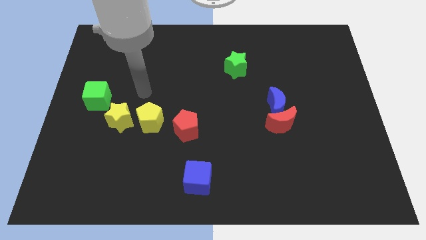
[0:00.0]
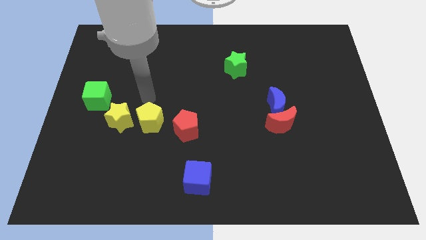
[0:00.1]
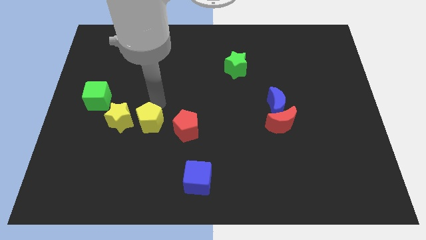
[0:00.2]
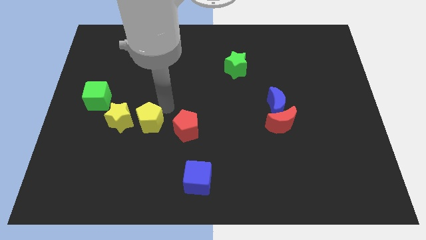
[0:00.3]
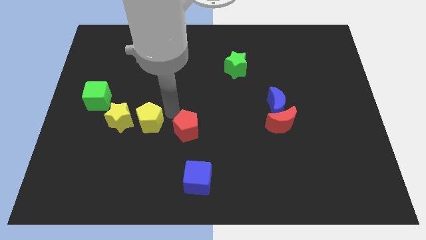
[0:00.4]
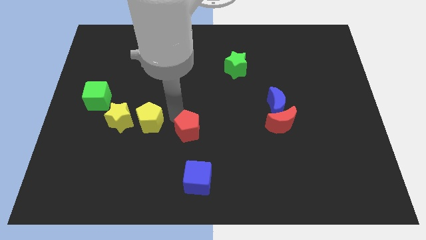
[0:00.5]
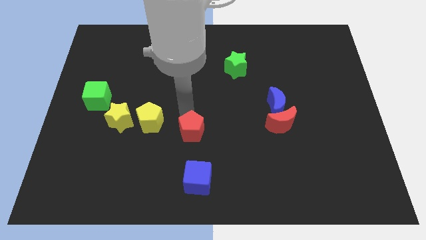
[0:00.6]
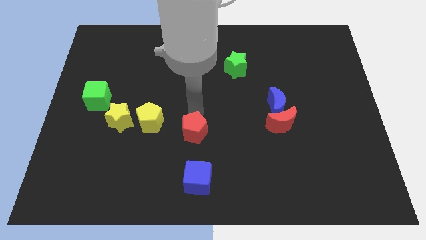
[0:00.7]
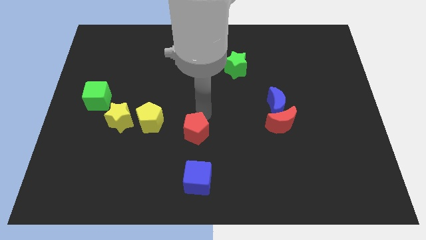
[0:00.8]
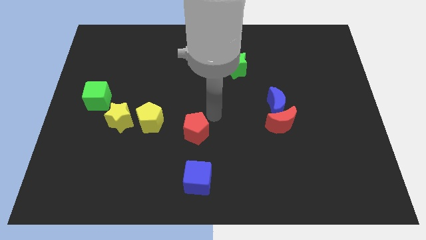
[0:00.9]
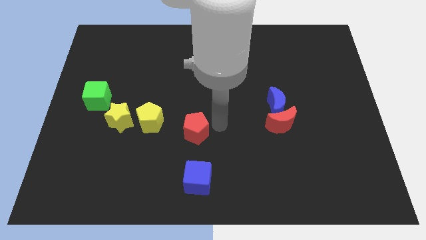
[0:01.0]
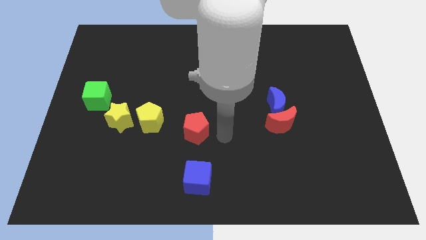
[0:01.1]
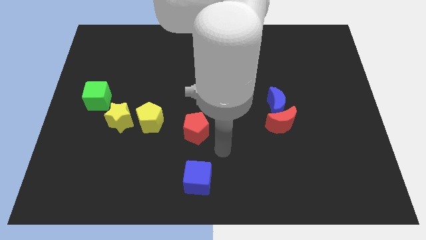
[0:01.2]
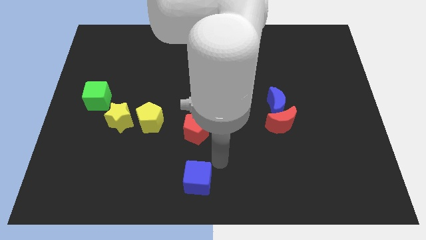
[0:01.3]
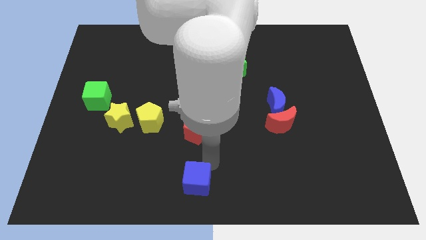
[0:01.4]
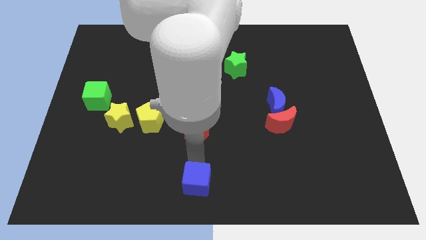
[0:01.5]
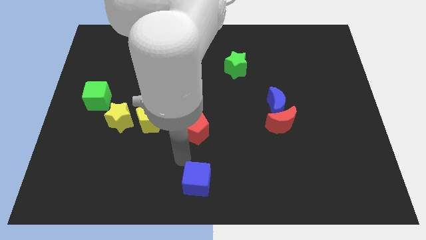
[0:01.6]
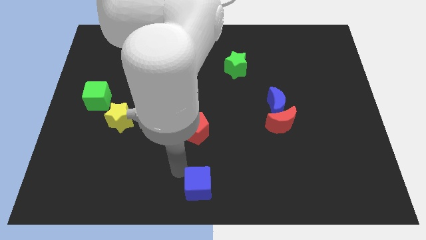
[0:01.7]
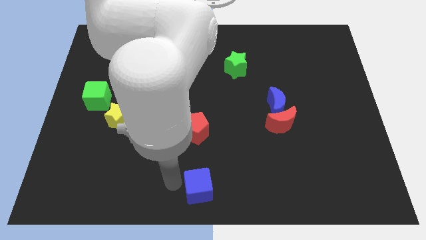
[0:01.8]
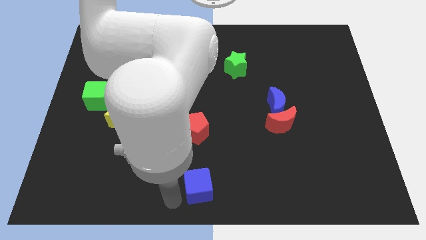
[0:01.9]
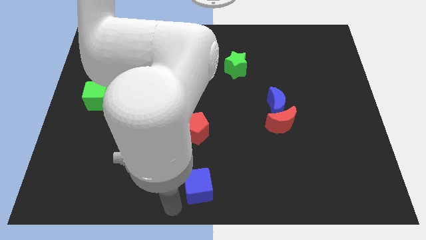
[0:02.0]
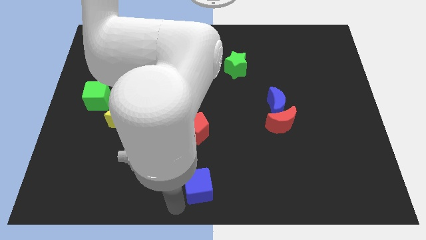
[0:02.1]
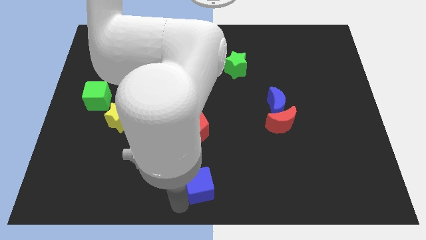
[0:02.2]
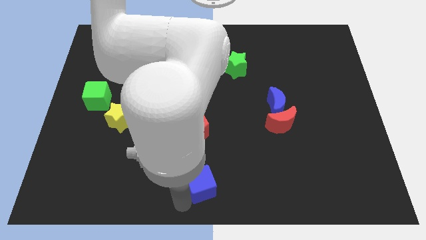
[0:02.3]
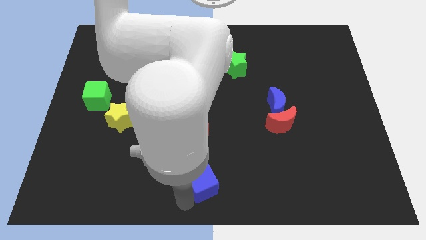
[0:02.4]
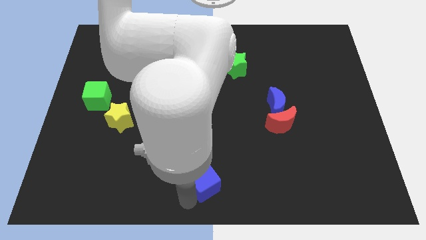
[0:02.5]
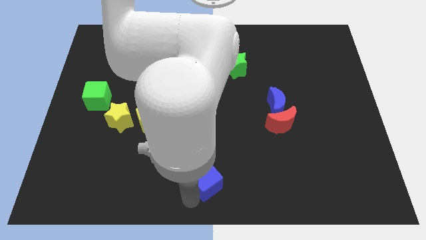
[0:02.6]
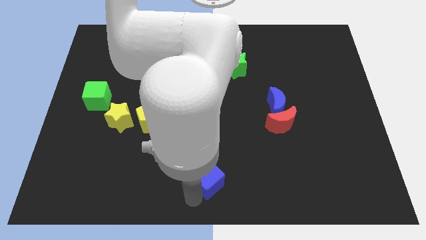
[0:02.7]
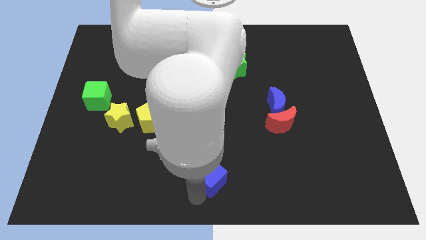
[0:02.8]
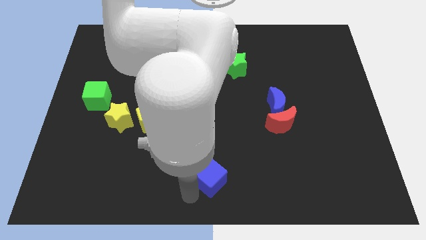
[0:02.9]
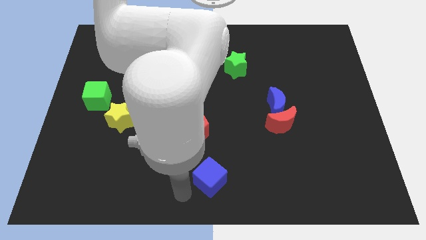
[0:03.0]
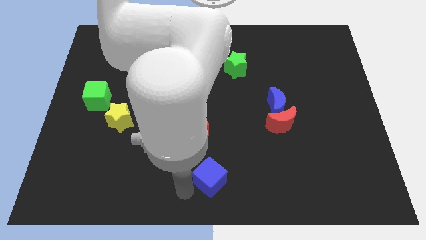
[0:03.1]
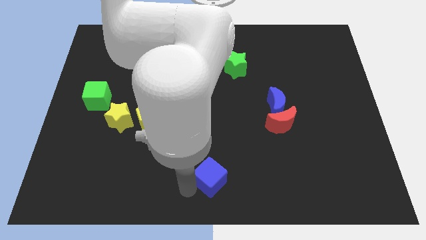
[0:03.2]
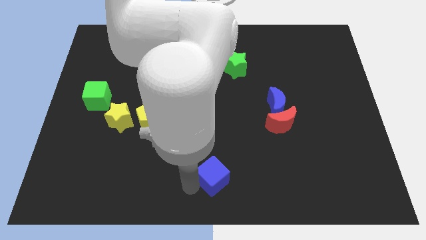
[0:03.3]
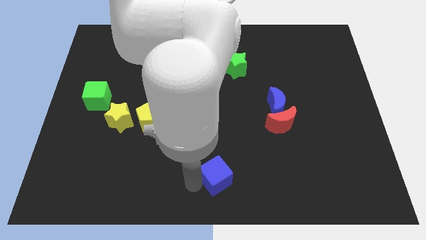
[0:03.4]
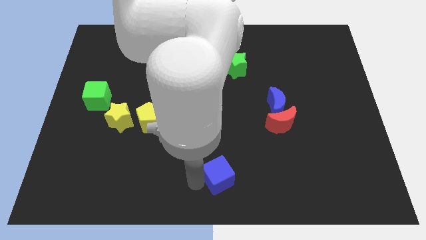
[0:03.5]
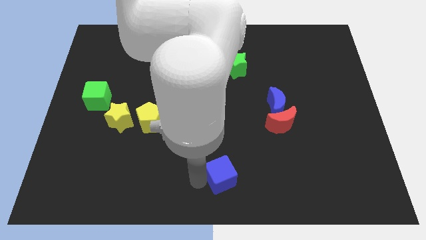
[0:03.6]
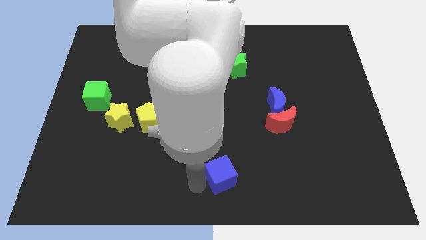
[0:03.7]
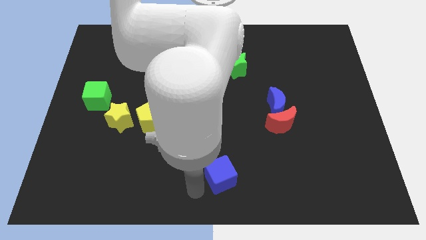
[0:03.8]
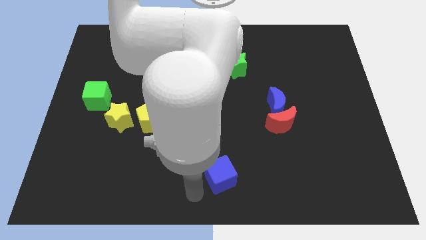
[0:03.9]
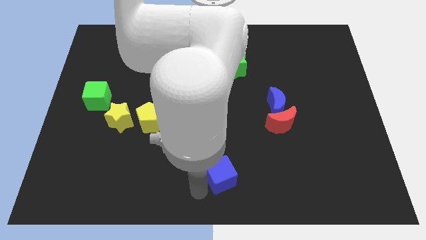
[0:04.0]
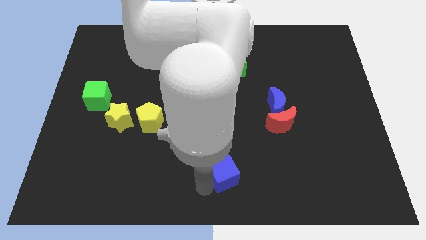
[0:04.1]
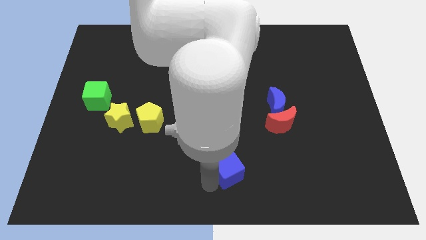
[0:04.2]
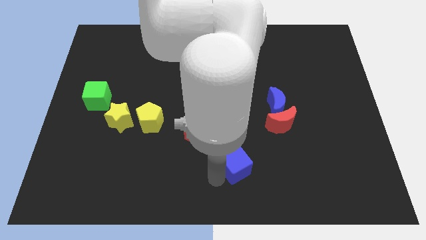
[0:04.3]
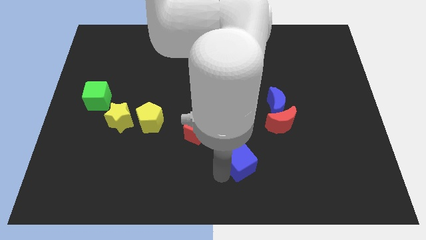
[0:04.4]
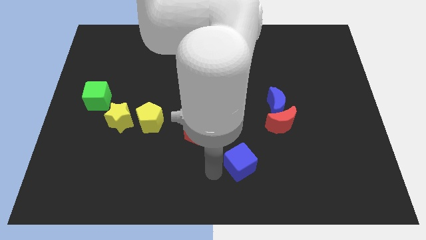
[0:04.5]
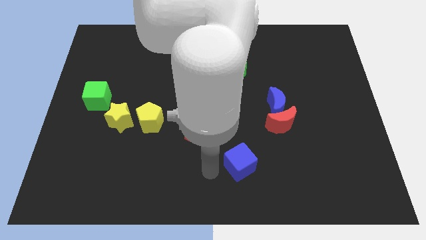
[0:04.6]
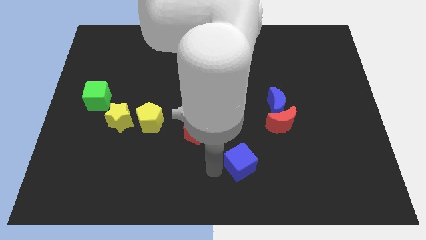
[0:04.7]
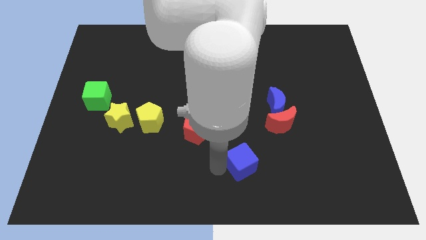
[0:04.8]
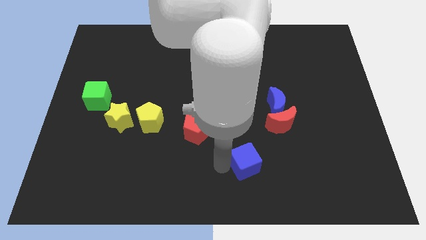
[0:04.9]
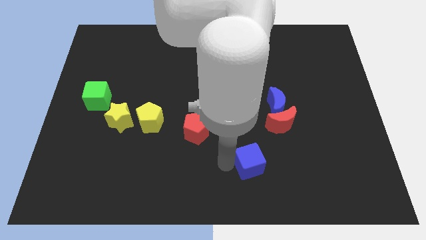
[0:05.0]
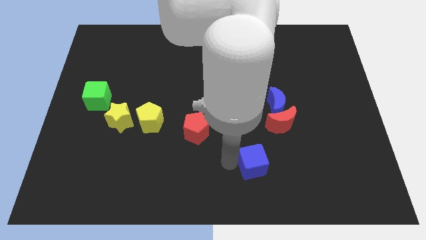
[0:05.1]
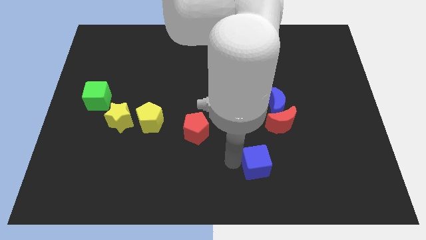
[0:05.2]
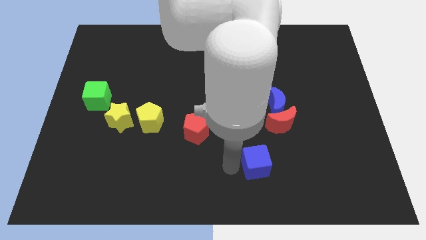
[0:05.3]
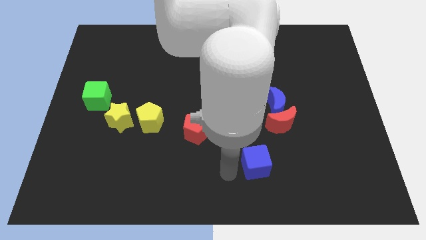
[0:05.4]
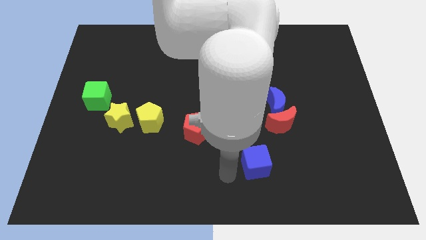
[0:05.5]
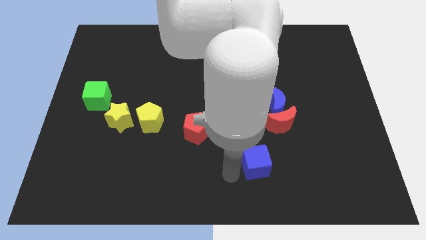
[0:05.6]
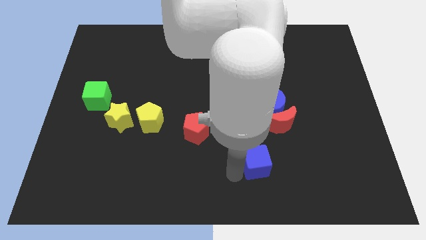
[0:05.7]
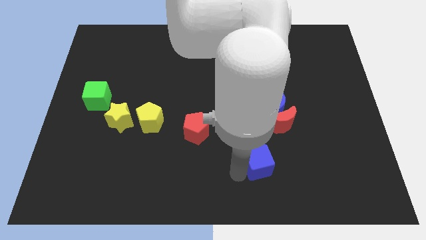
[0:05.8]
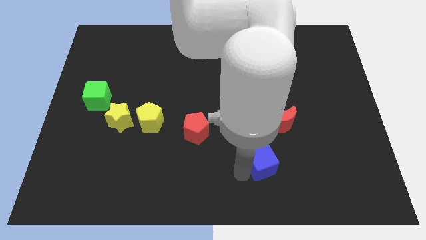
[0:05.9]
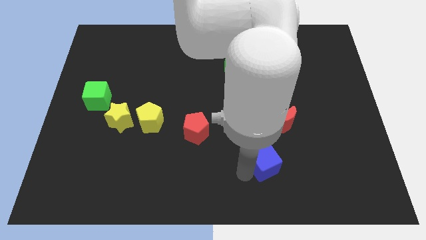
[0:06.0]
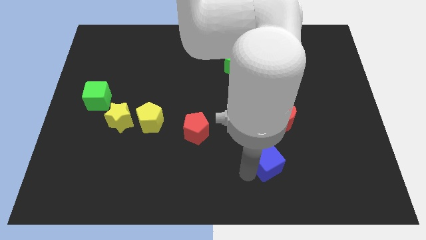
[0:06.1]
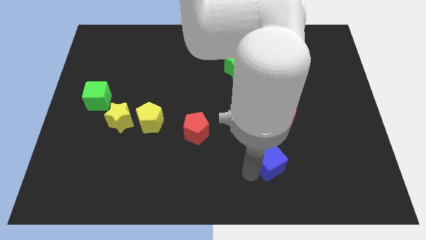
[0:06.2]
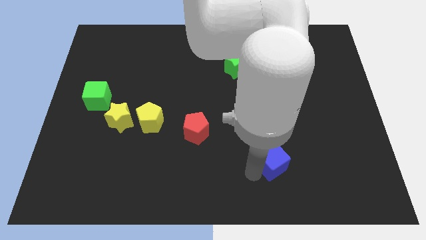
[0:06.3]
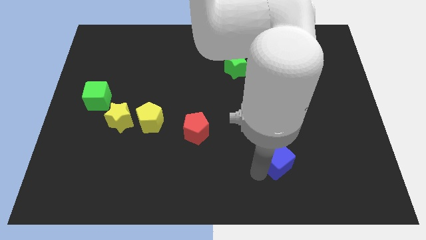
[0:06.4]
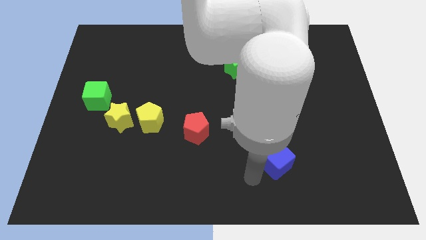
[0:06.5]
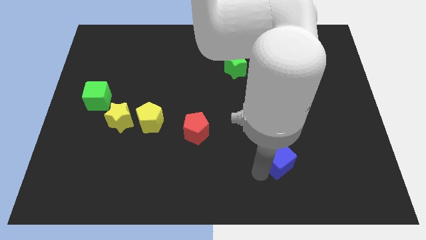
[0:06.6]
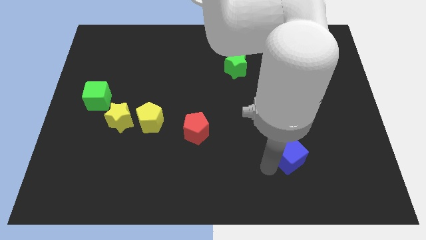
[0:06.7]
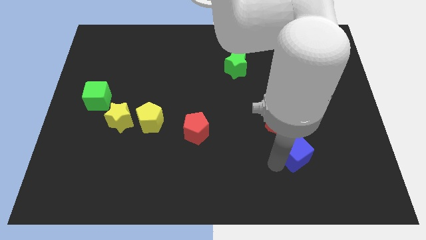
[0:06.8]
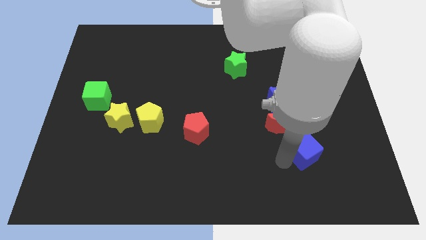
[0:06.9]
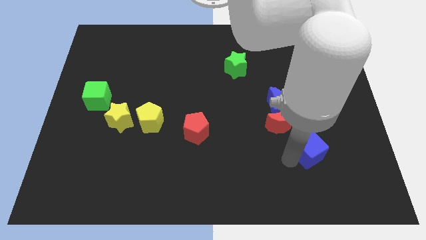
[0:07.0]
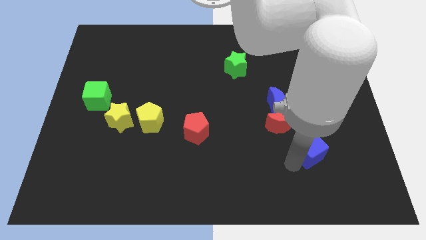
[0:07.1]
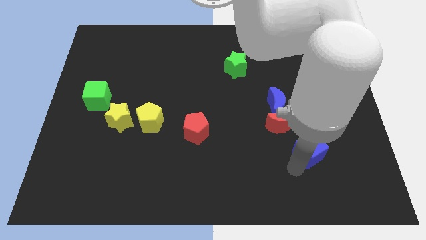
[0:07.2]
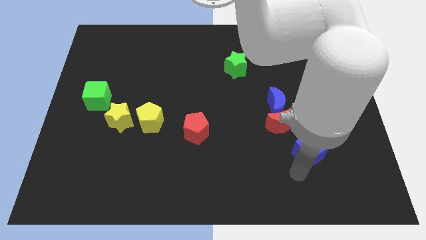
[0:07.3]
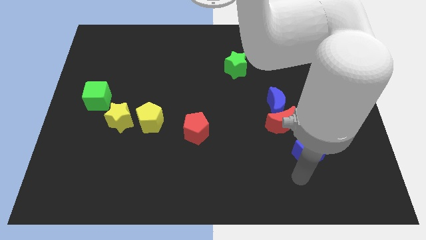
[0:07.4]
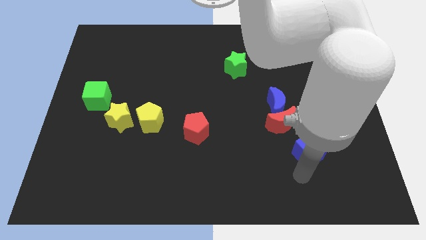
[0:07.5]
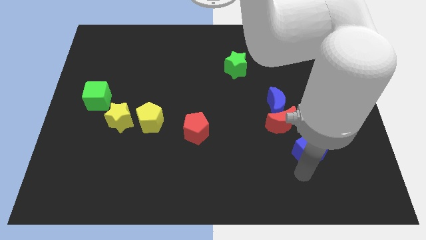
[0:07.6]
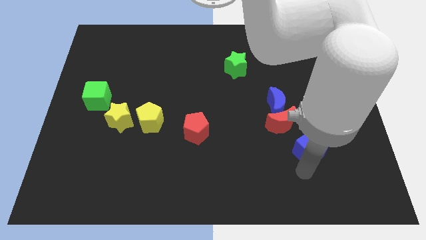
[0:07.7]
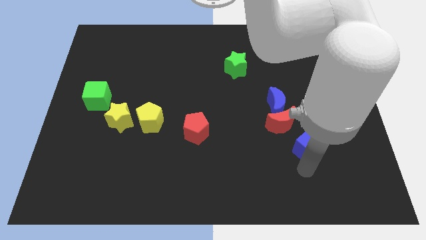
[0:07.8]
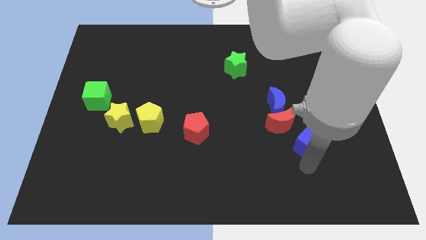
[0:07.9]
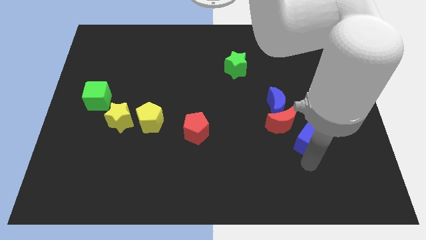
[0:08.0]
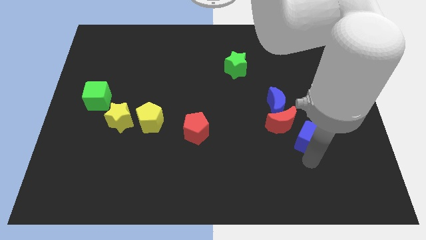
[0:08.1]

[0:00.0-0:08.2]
slide the blue cube to the right of the red moon
